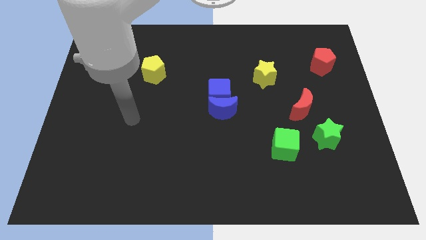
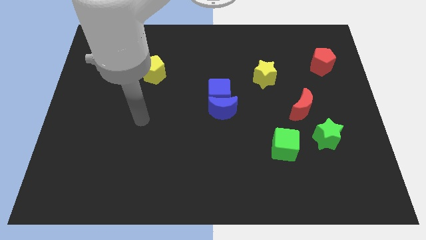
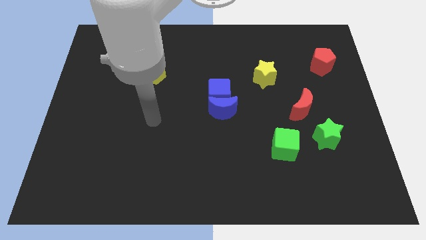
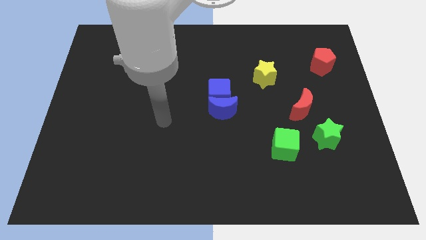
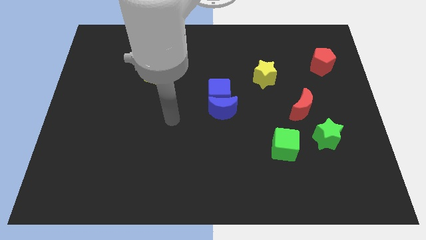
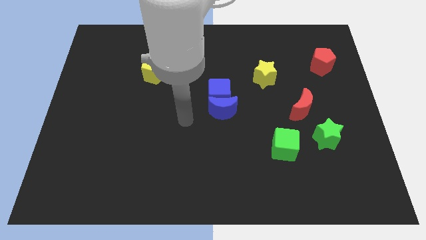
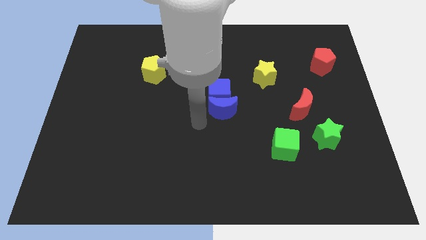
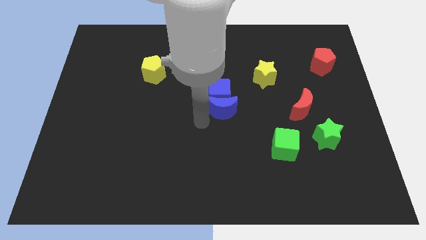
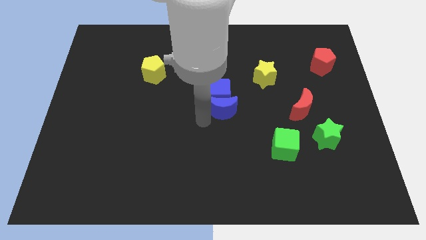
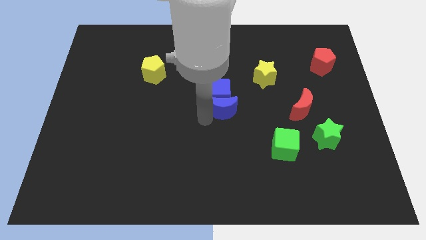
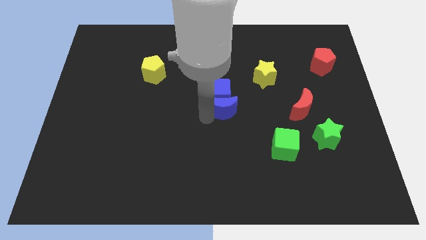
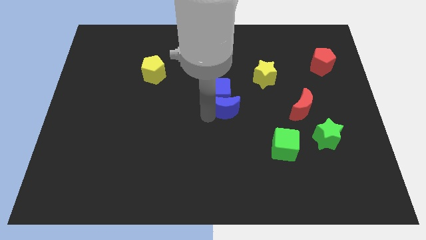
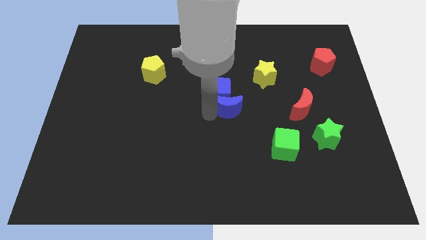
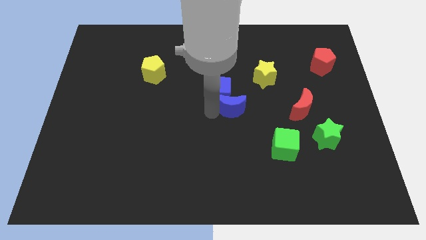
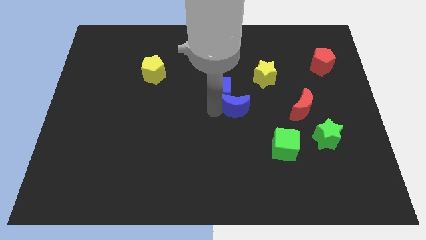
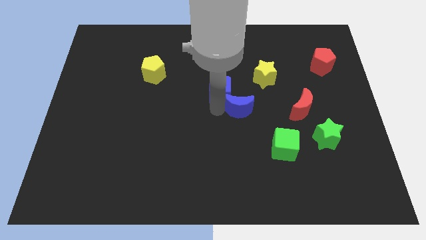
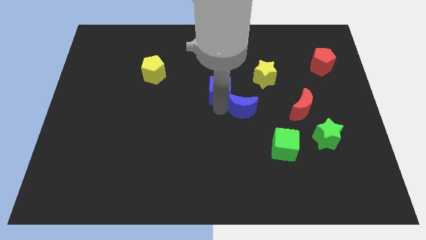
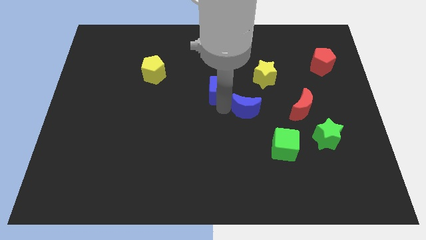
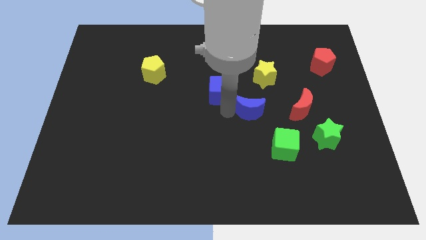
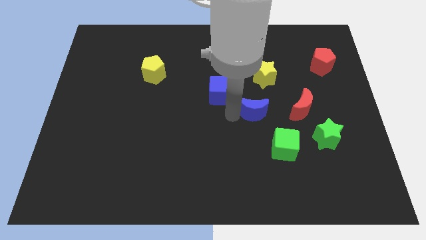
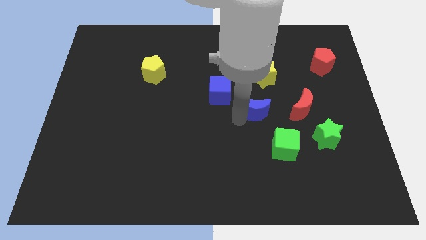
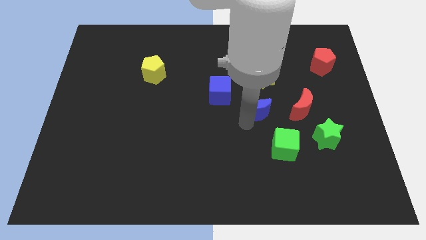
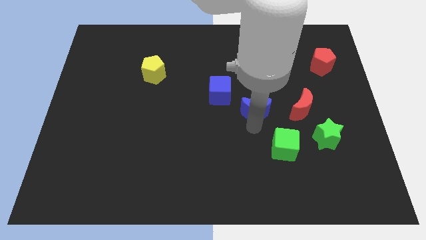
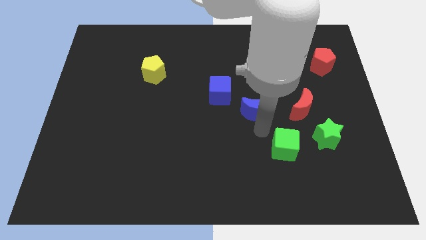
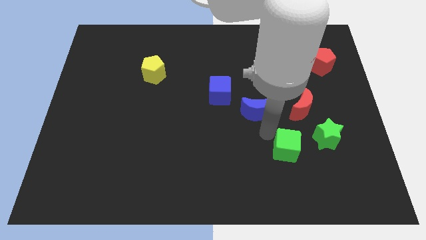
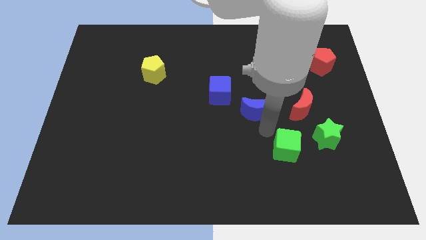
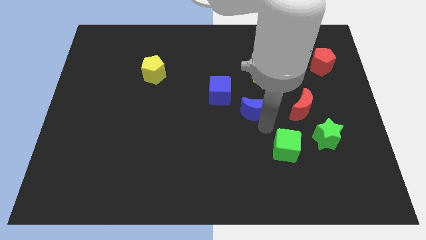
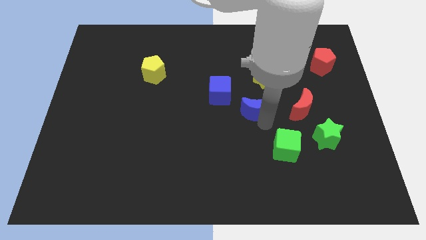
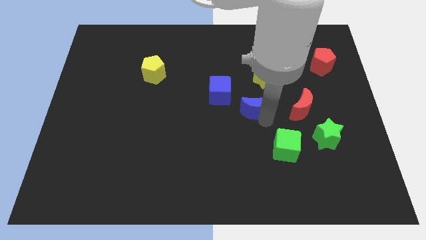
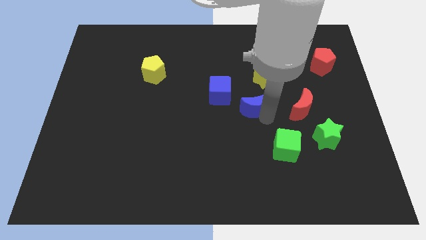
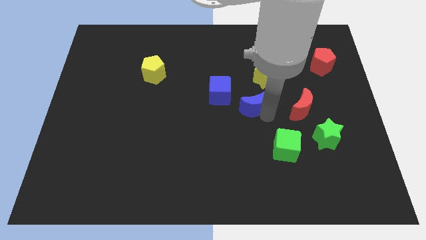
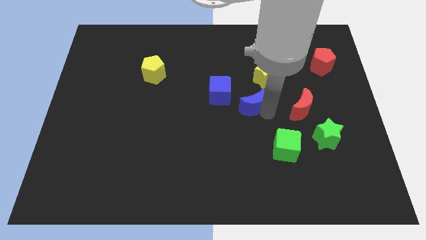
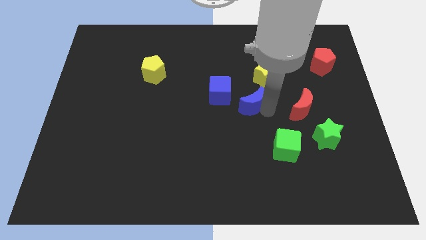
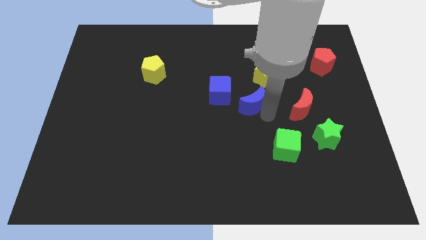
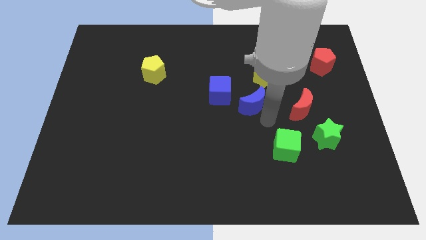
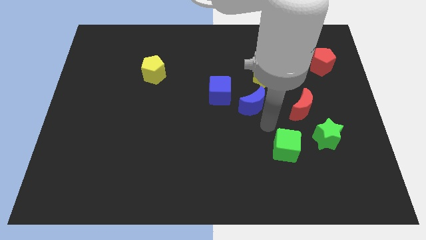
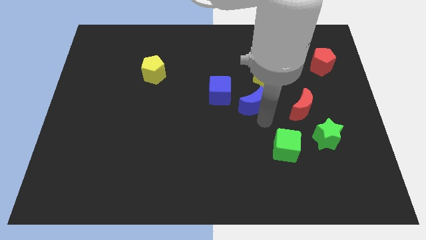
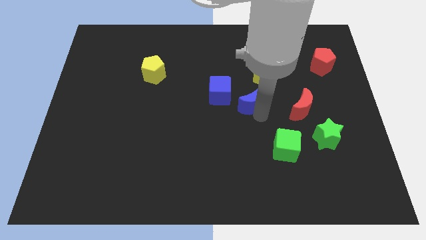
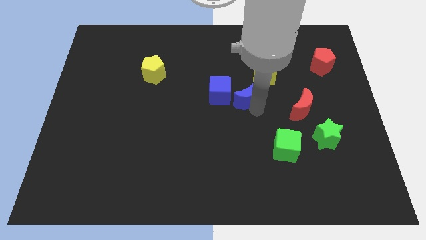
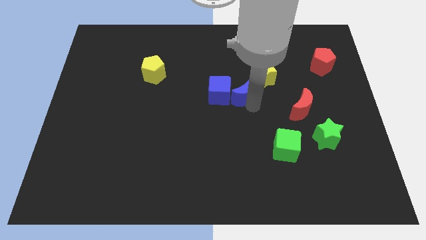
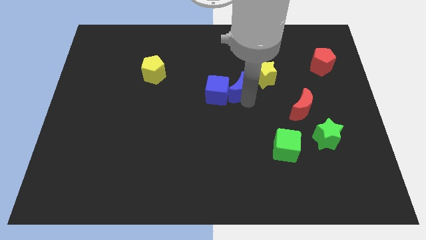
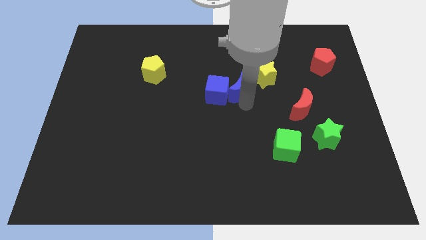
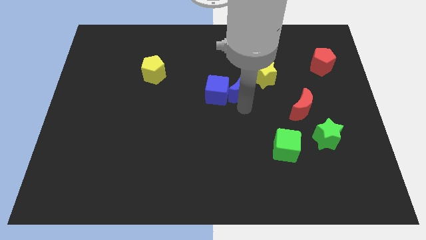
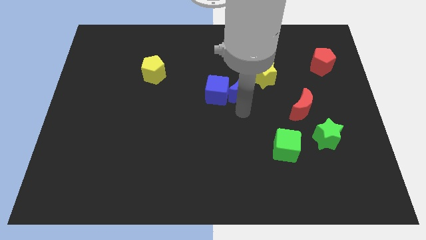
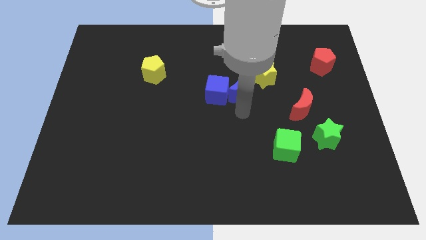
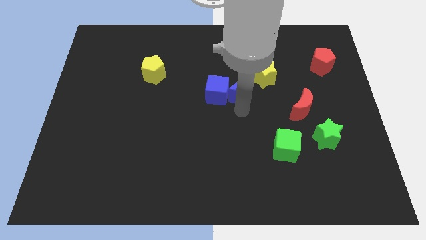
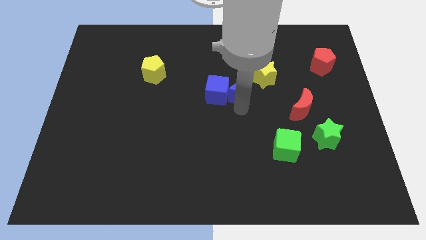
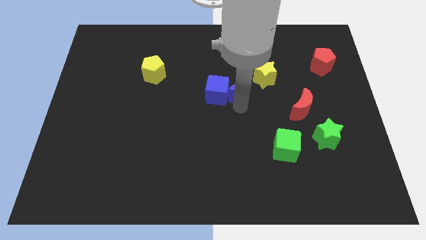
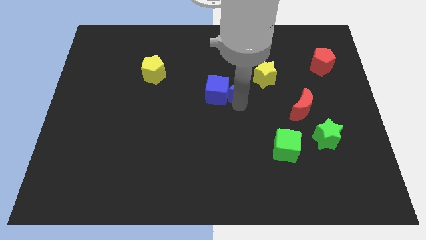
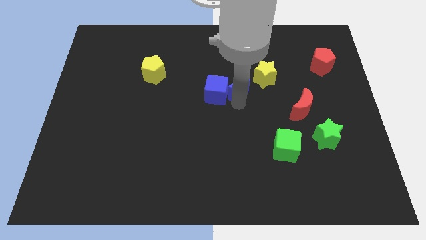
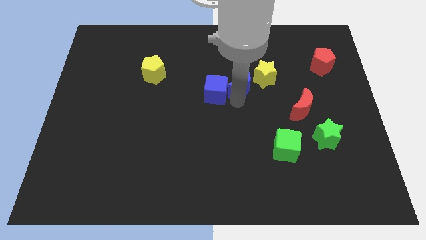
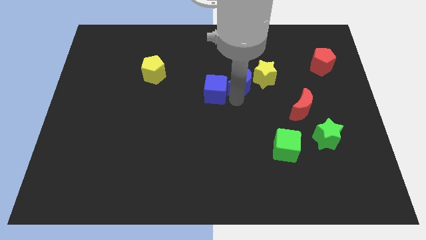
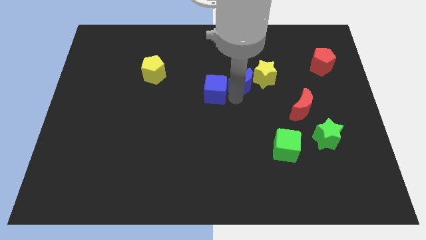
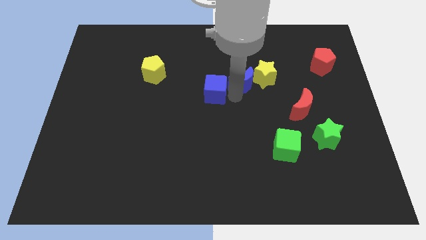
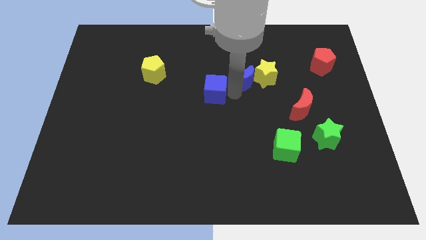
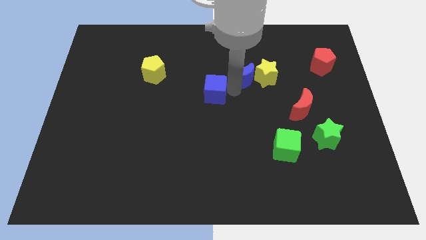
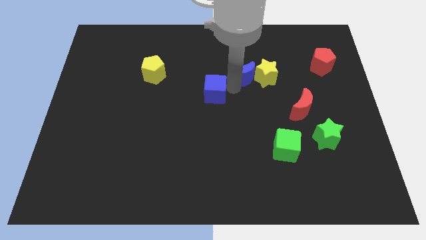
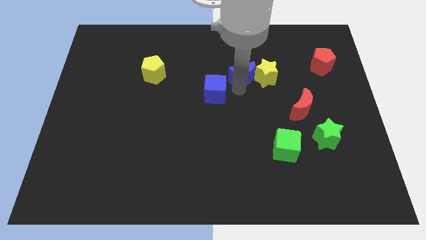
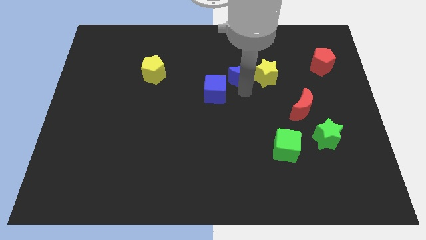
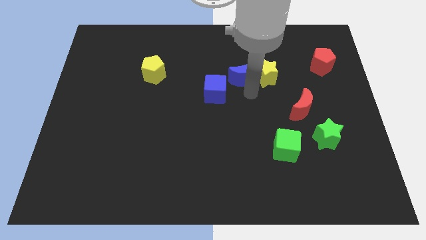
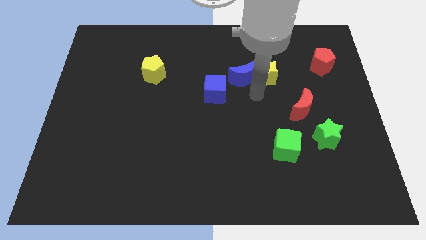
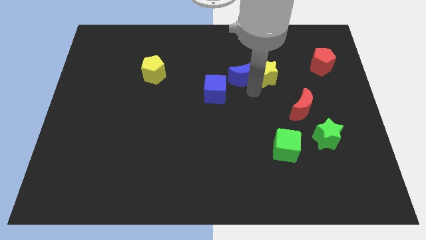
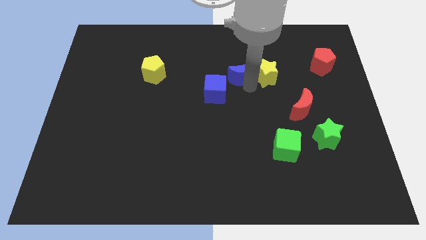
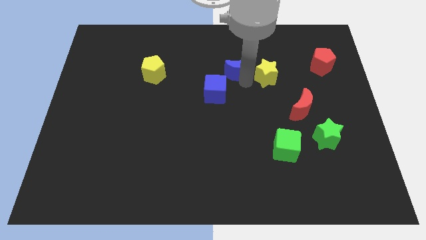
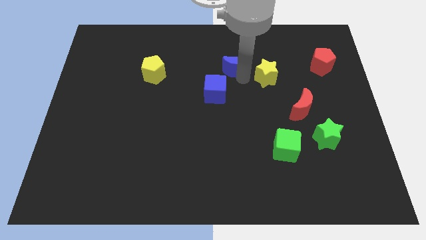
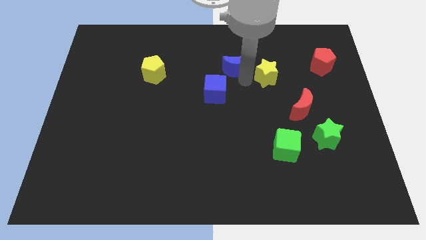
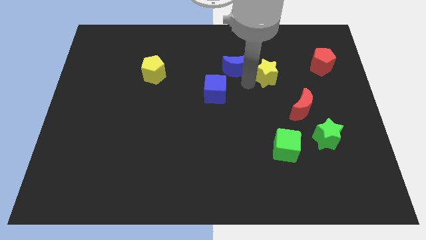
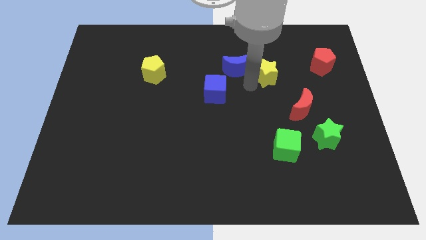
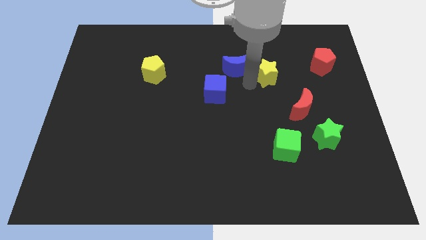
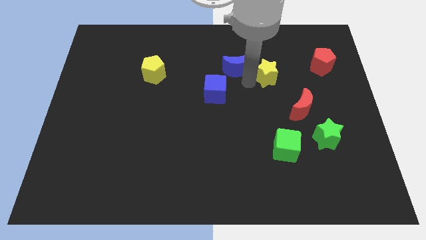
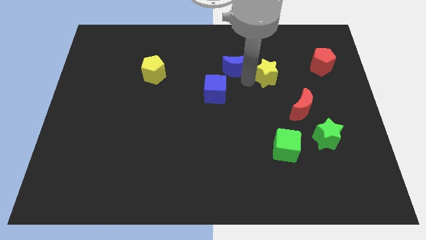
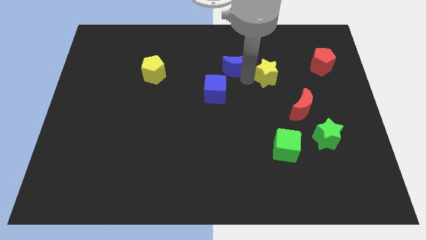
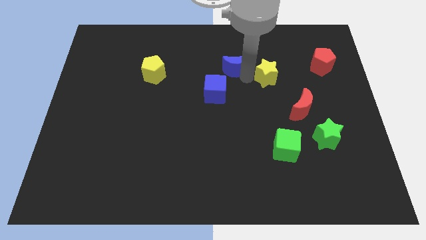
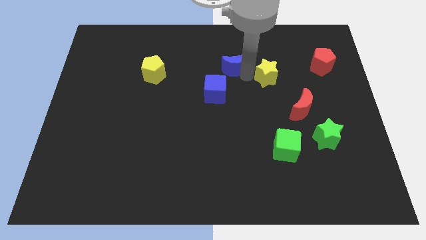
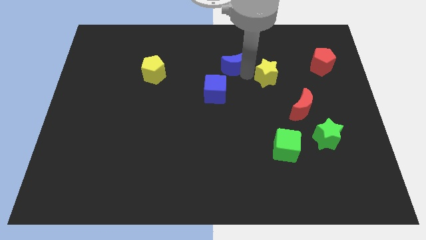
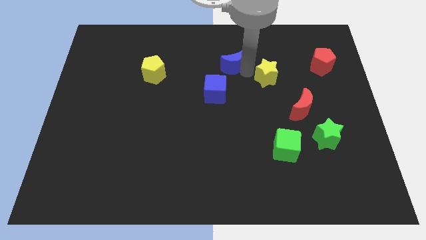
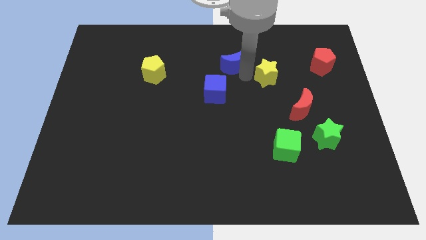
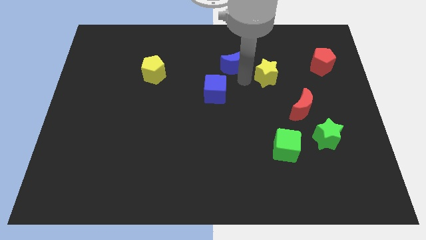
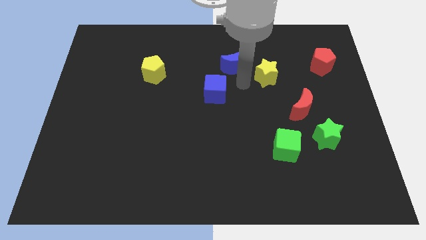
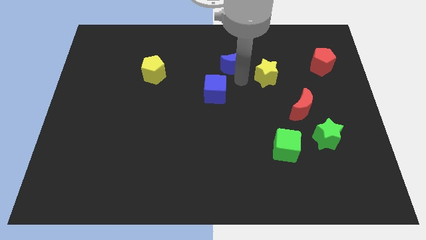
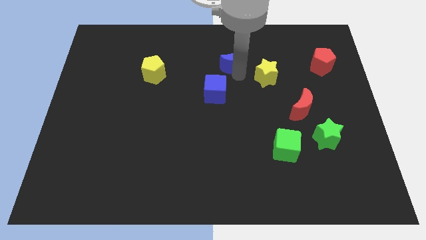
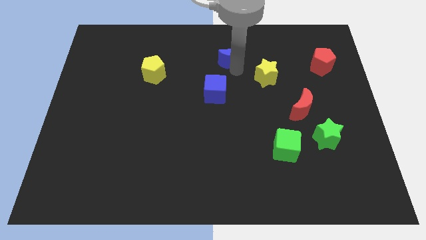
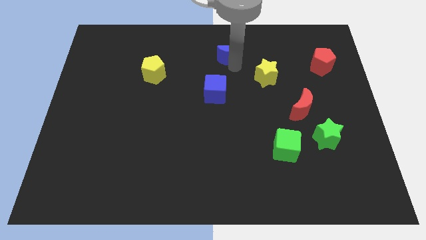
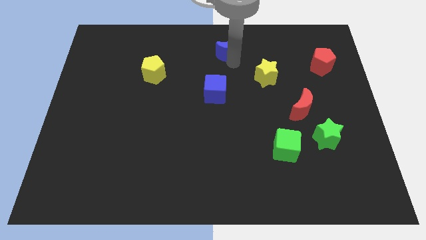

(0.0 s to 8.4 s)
push the blue moon to the towards your base
